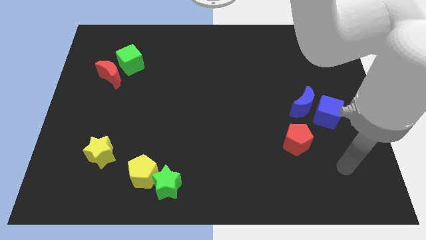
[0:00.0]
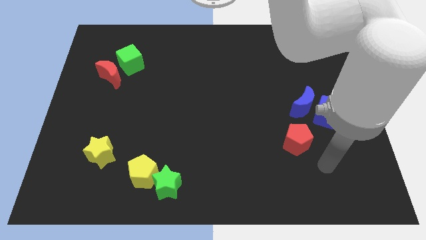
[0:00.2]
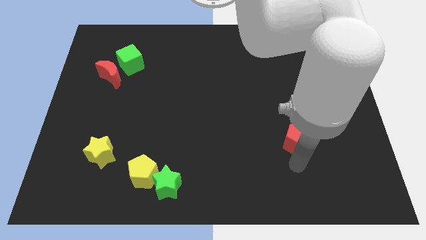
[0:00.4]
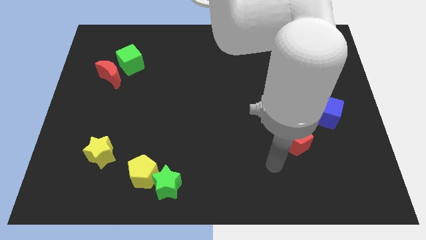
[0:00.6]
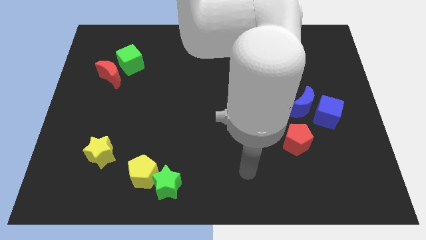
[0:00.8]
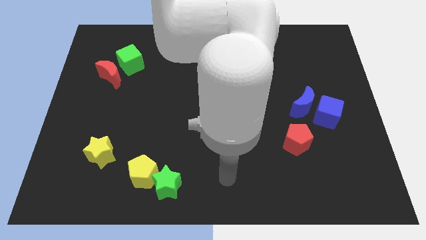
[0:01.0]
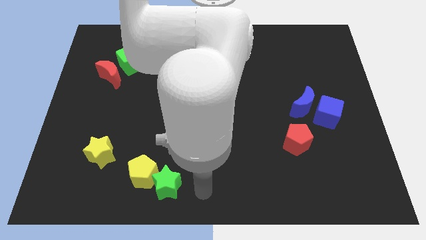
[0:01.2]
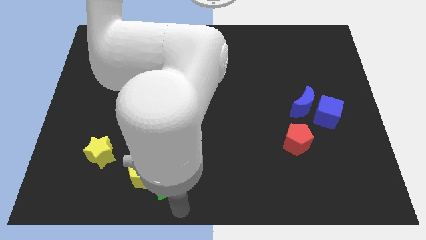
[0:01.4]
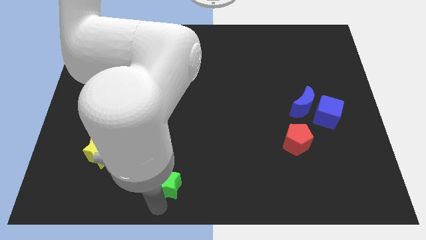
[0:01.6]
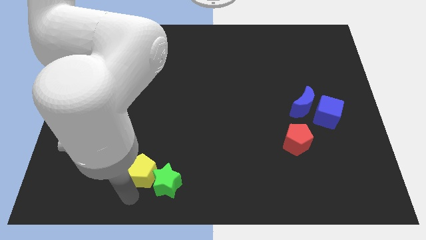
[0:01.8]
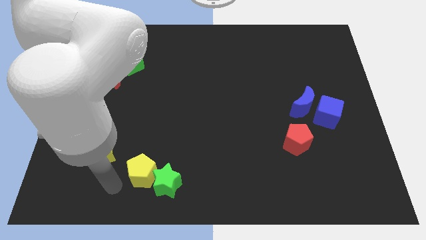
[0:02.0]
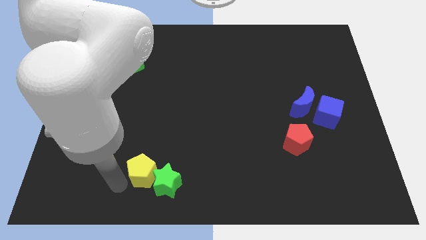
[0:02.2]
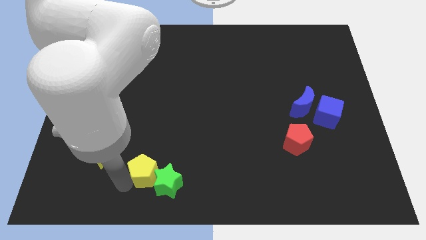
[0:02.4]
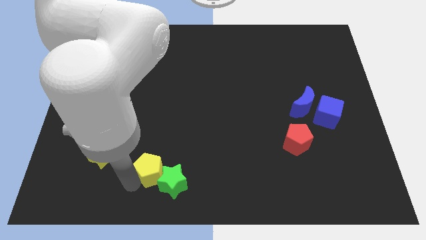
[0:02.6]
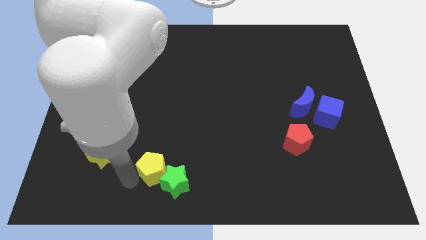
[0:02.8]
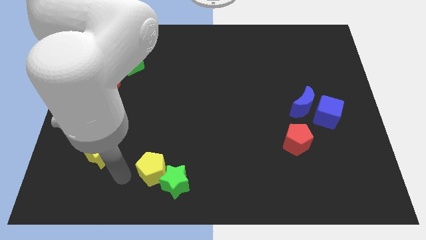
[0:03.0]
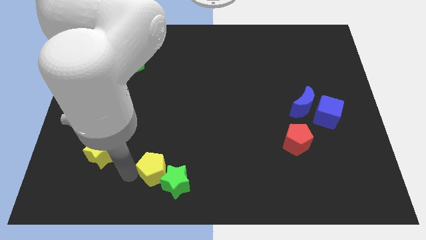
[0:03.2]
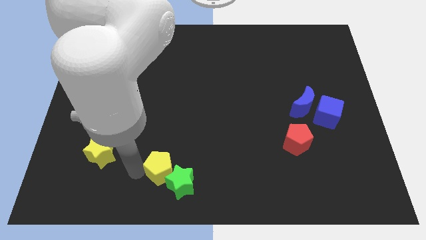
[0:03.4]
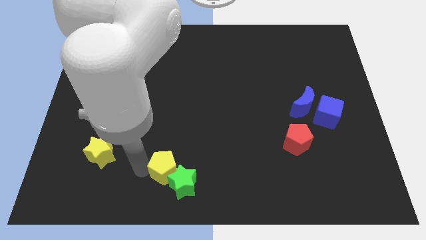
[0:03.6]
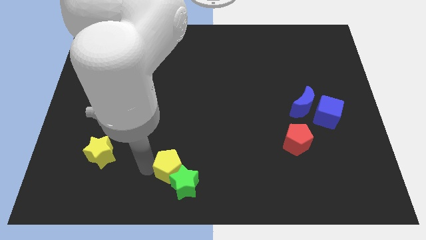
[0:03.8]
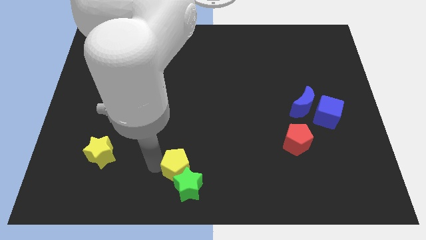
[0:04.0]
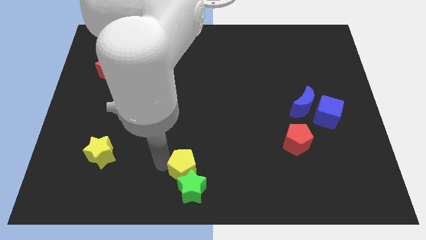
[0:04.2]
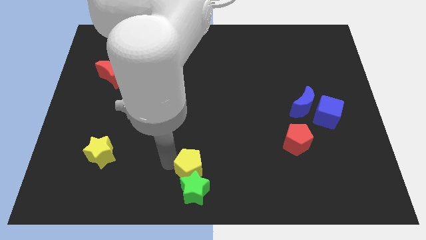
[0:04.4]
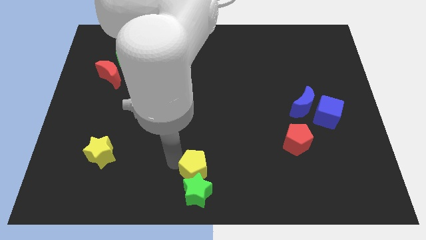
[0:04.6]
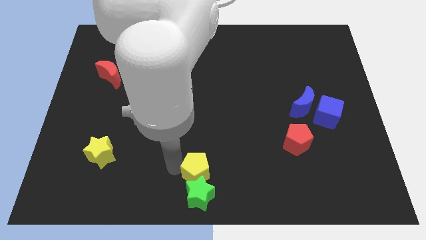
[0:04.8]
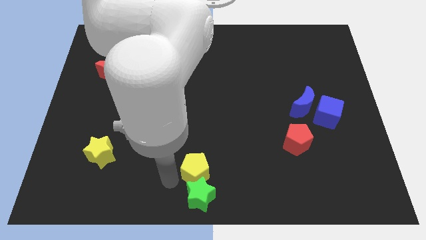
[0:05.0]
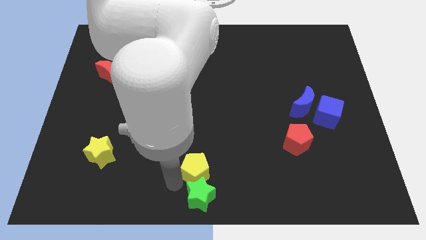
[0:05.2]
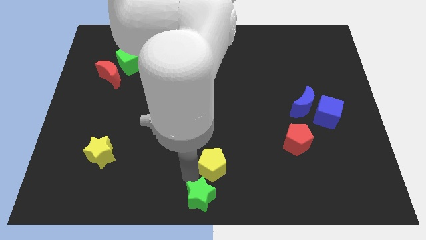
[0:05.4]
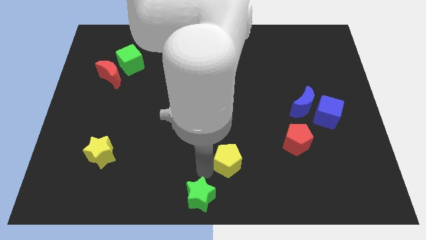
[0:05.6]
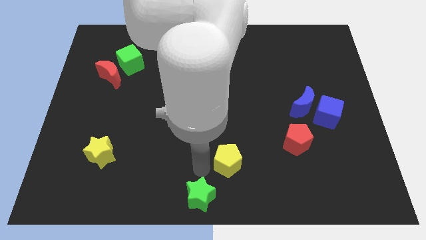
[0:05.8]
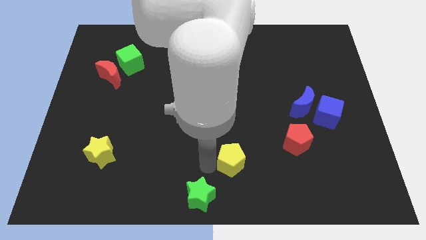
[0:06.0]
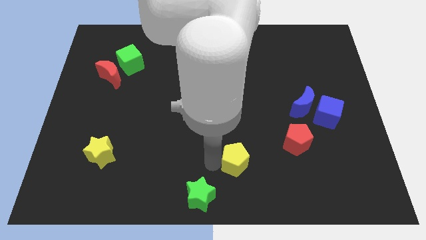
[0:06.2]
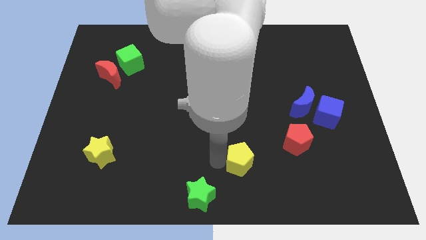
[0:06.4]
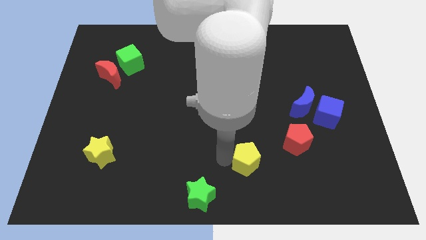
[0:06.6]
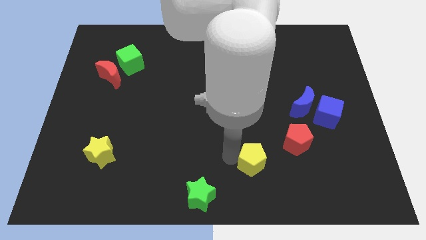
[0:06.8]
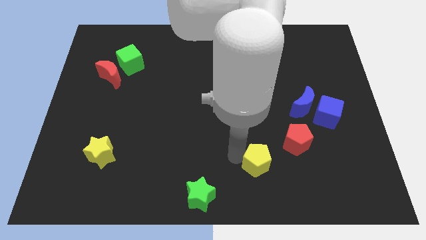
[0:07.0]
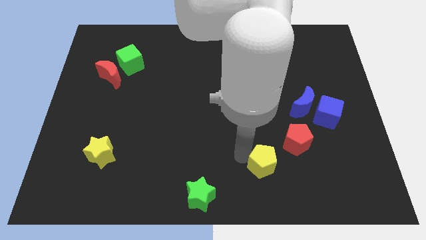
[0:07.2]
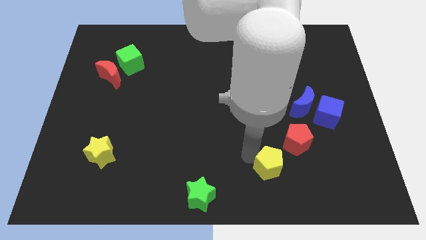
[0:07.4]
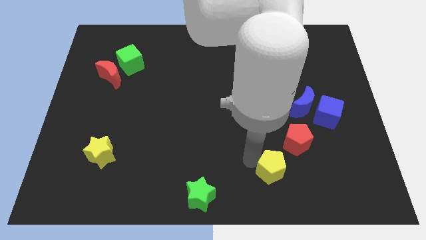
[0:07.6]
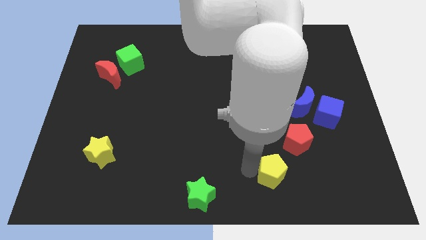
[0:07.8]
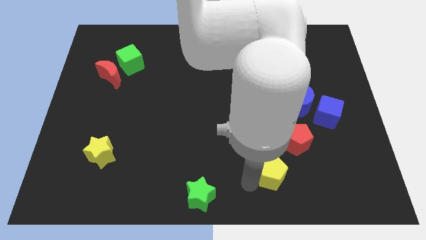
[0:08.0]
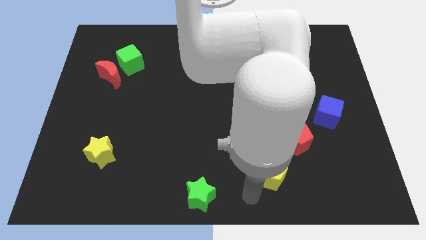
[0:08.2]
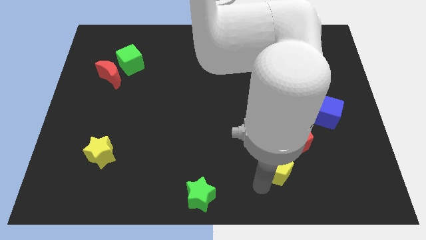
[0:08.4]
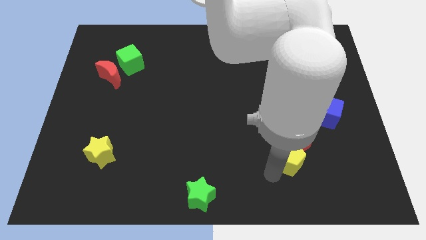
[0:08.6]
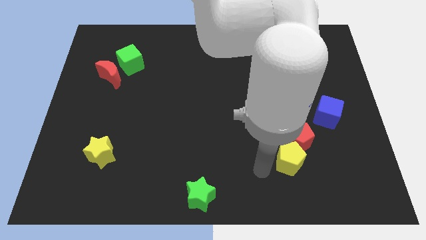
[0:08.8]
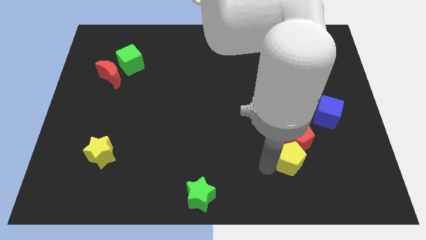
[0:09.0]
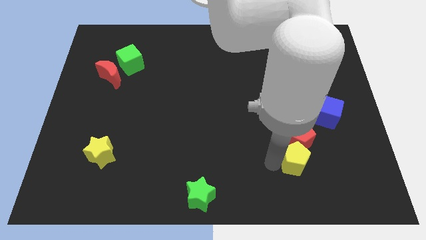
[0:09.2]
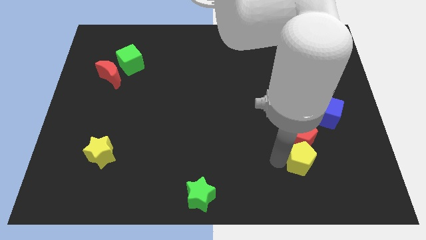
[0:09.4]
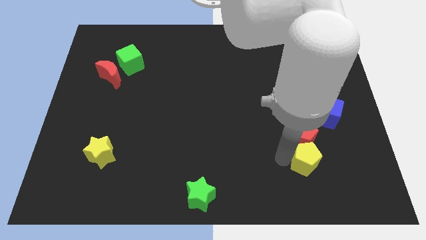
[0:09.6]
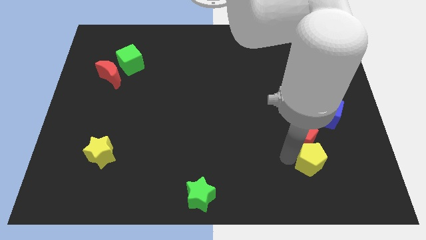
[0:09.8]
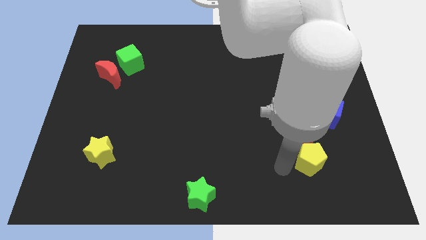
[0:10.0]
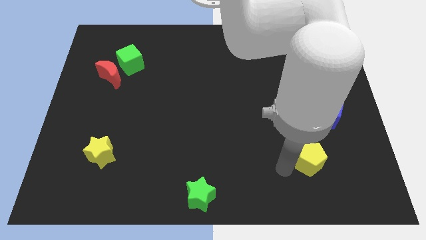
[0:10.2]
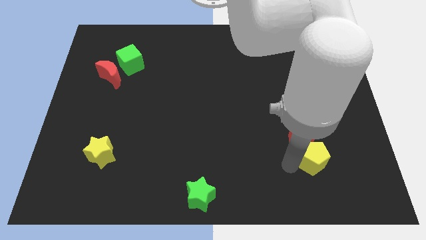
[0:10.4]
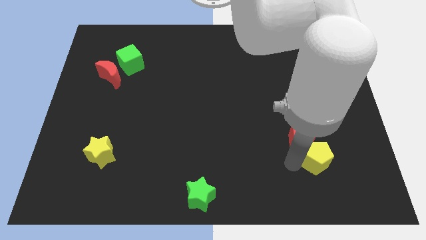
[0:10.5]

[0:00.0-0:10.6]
move the yellow pentagon to the bottom of the blue cube

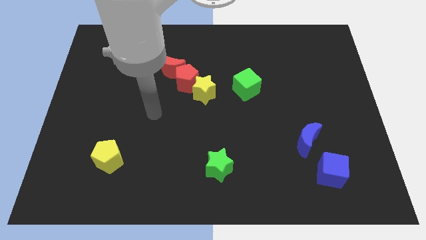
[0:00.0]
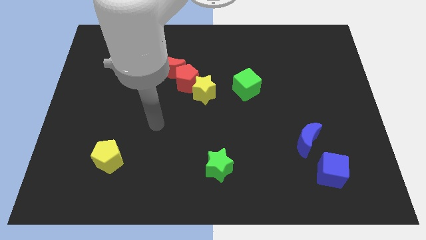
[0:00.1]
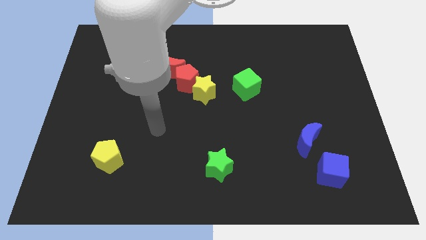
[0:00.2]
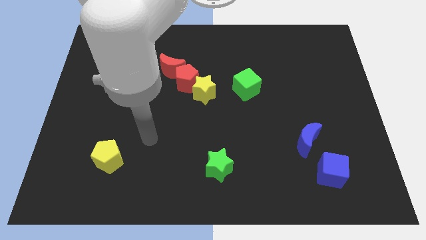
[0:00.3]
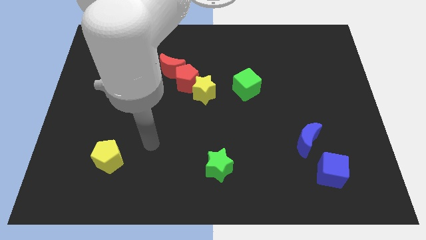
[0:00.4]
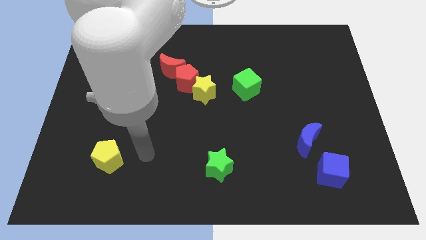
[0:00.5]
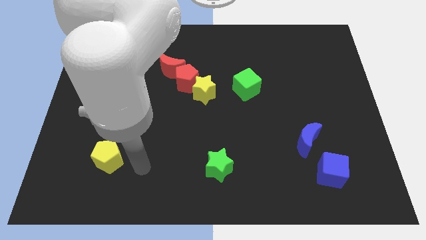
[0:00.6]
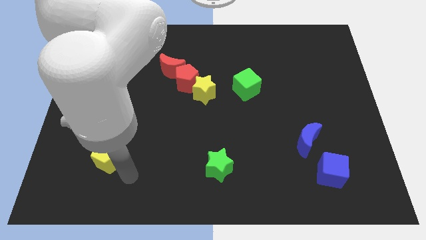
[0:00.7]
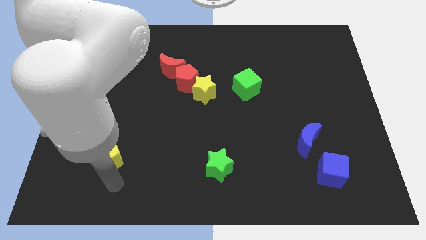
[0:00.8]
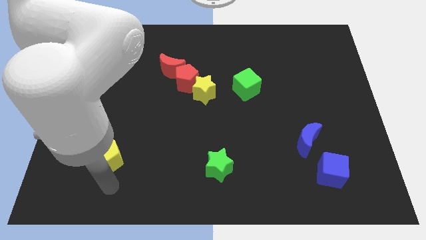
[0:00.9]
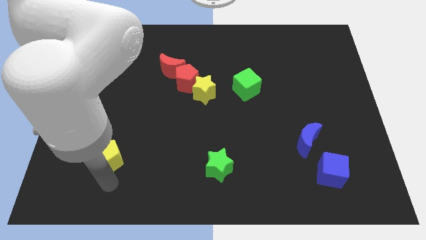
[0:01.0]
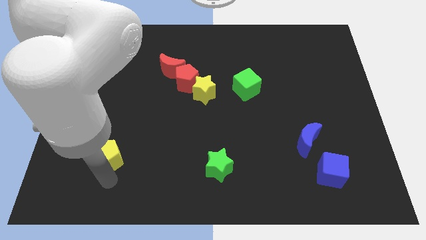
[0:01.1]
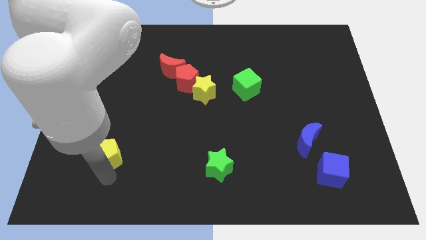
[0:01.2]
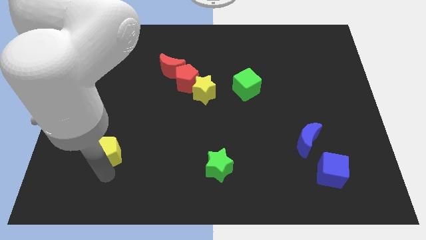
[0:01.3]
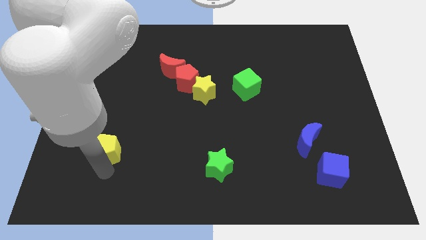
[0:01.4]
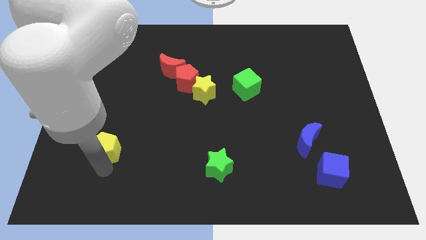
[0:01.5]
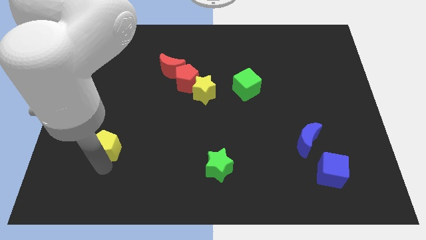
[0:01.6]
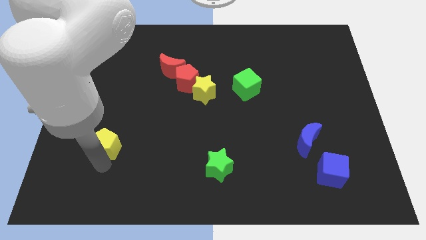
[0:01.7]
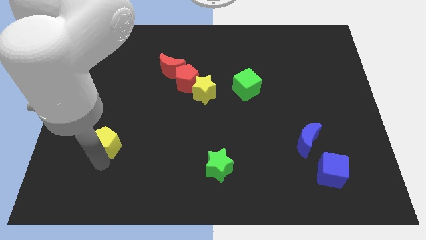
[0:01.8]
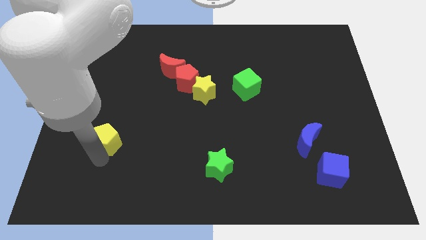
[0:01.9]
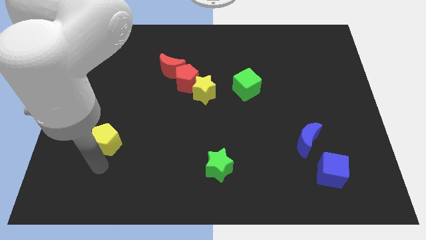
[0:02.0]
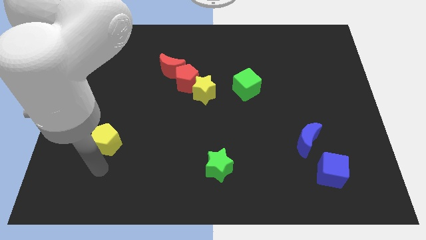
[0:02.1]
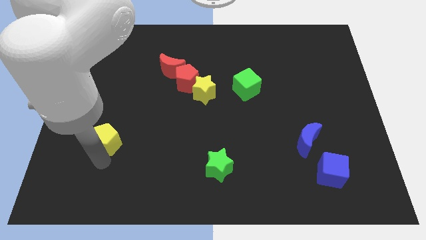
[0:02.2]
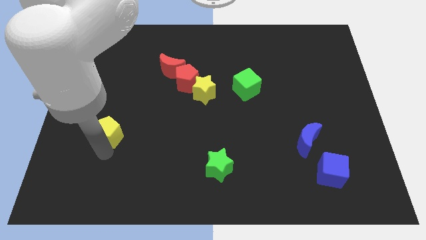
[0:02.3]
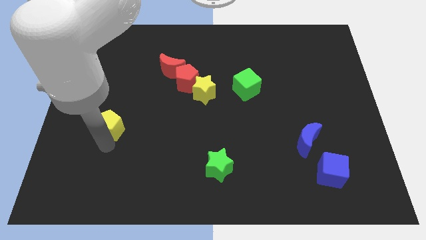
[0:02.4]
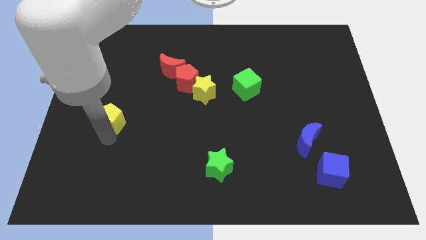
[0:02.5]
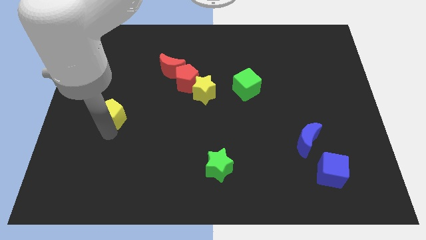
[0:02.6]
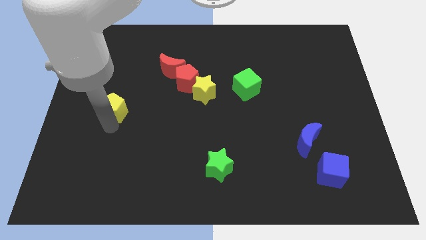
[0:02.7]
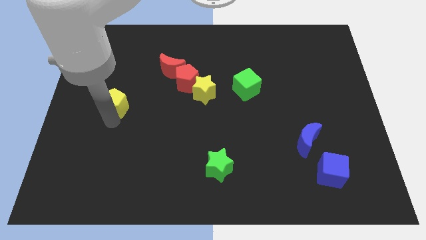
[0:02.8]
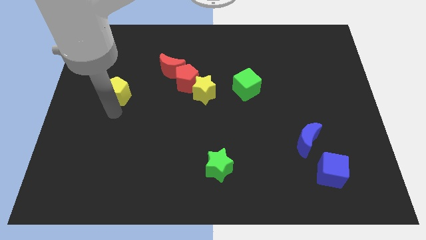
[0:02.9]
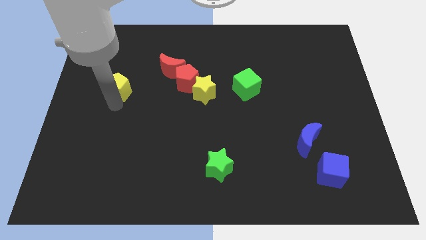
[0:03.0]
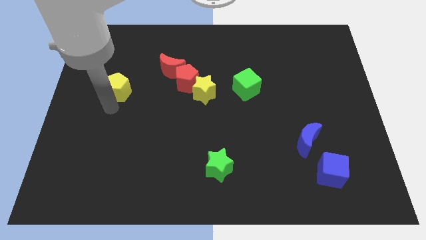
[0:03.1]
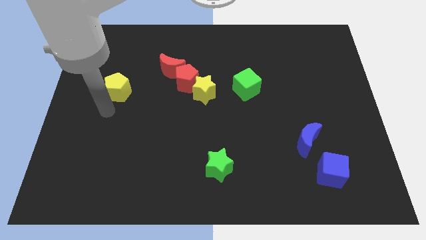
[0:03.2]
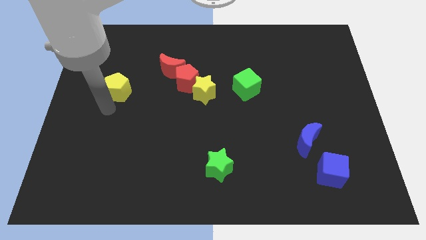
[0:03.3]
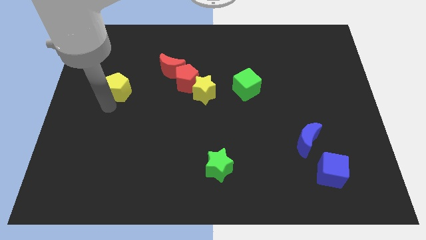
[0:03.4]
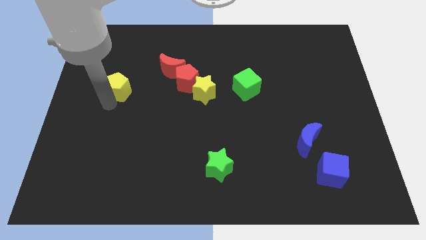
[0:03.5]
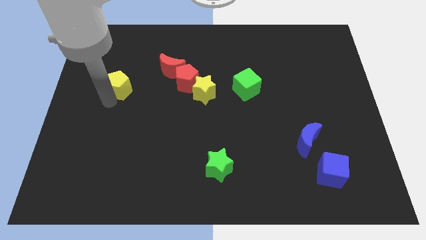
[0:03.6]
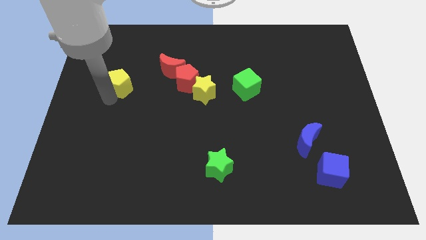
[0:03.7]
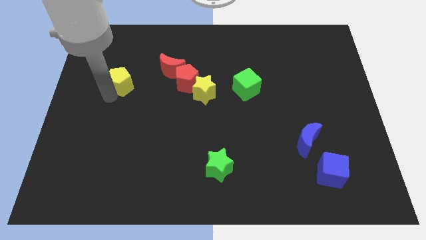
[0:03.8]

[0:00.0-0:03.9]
push the yellow pentagon to the left side of the red moon
